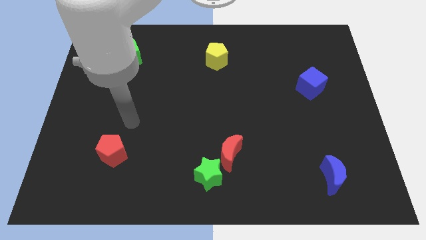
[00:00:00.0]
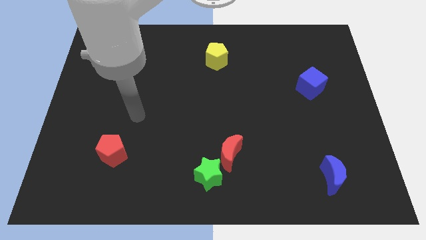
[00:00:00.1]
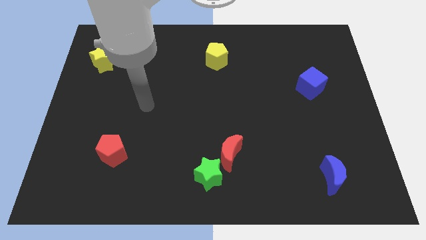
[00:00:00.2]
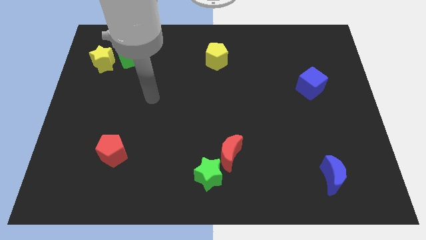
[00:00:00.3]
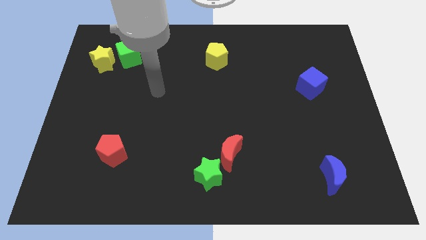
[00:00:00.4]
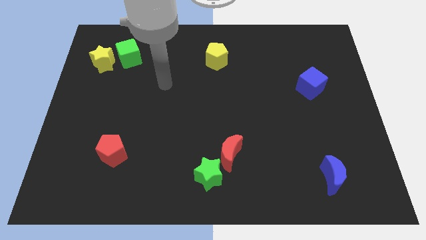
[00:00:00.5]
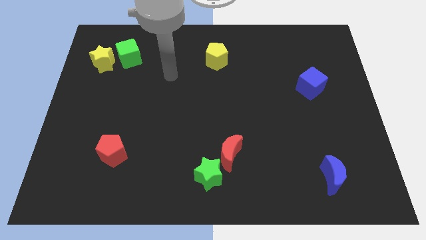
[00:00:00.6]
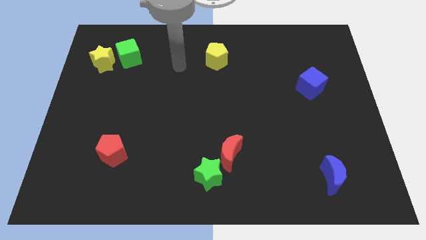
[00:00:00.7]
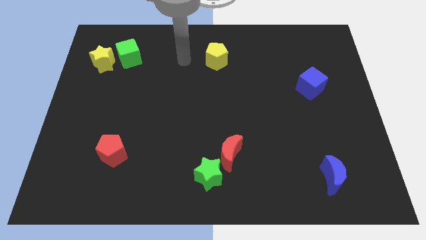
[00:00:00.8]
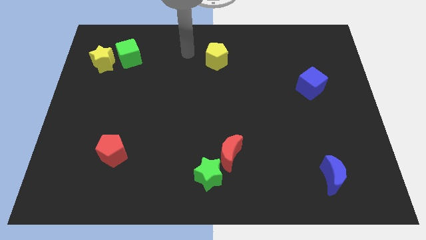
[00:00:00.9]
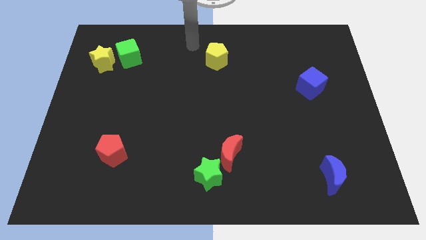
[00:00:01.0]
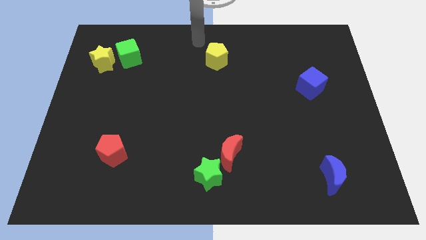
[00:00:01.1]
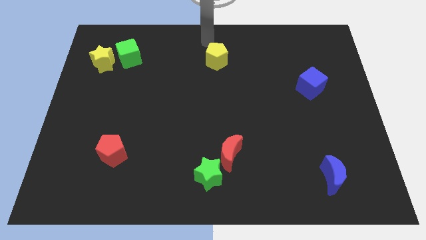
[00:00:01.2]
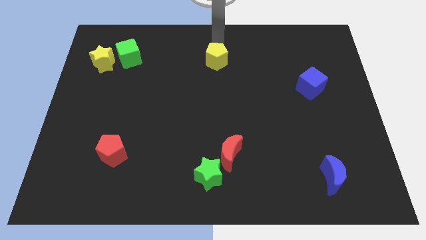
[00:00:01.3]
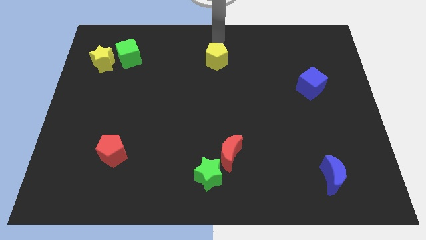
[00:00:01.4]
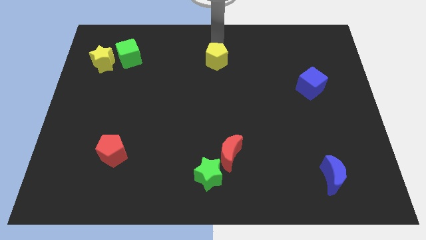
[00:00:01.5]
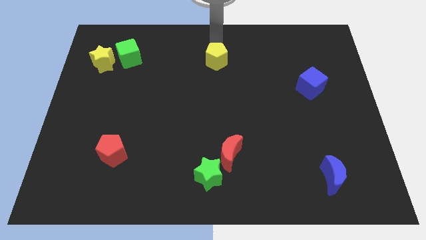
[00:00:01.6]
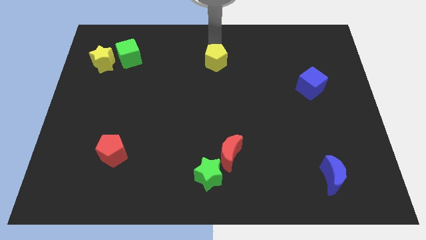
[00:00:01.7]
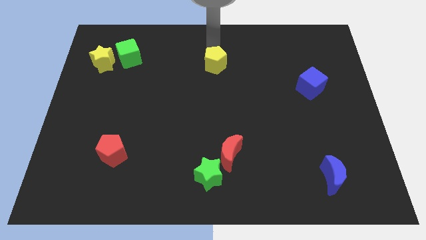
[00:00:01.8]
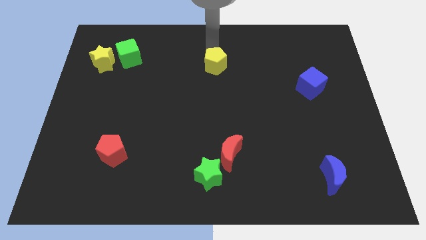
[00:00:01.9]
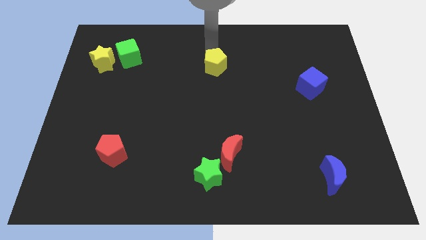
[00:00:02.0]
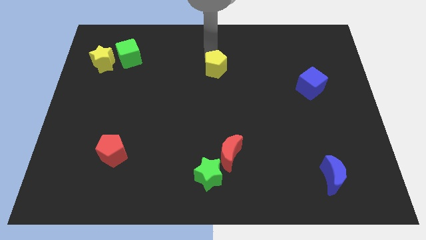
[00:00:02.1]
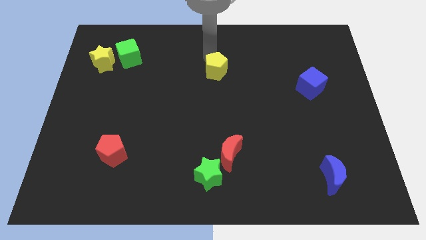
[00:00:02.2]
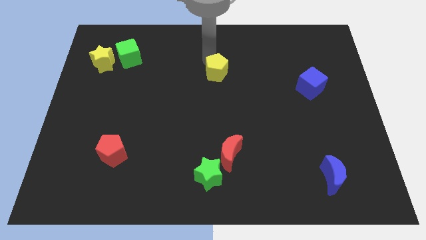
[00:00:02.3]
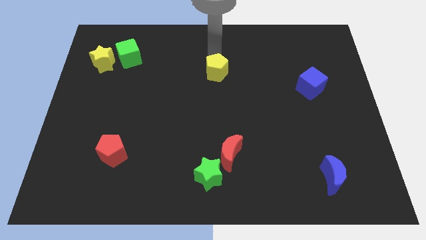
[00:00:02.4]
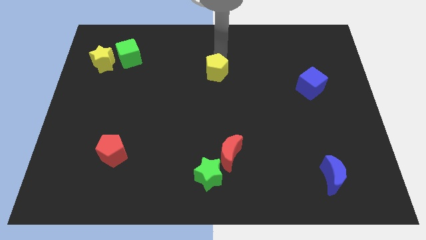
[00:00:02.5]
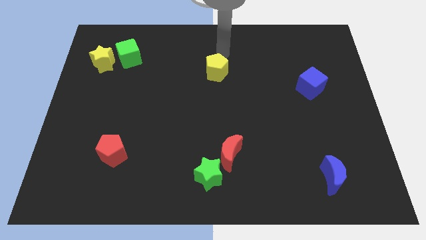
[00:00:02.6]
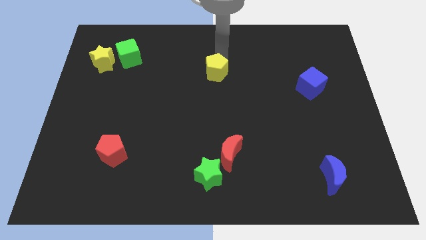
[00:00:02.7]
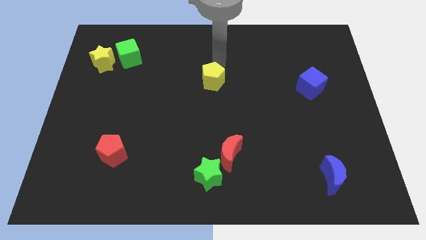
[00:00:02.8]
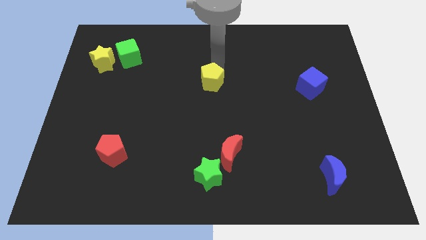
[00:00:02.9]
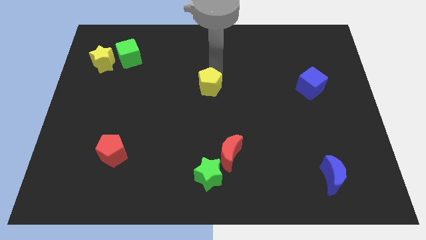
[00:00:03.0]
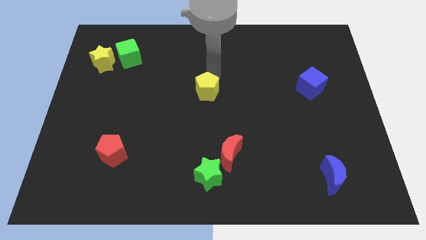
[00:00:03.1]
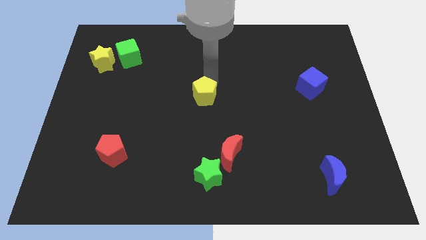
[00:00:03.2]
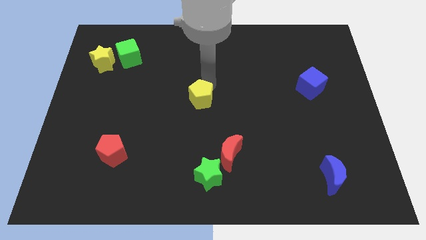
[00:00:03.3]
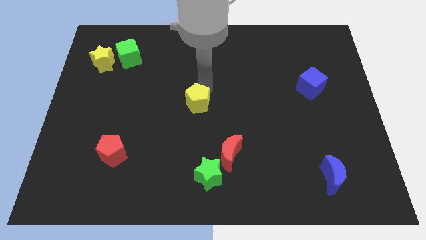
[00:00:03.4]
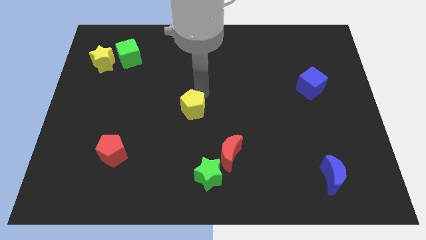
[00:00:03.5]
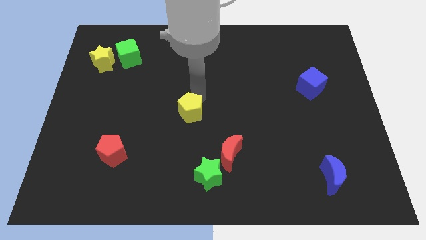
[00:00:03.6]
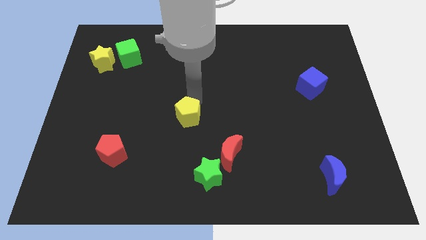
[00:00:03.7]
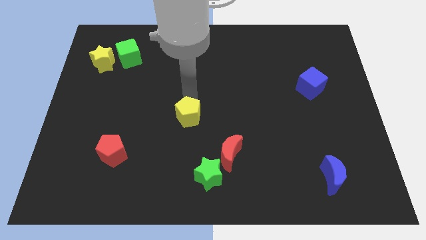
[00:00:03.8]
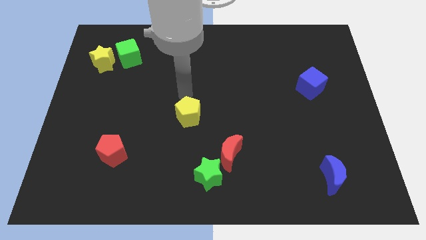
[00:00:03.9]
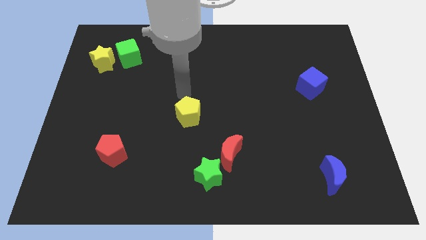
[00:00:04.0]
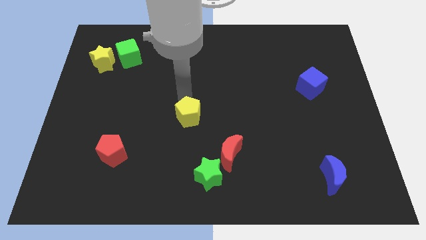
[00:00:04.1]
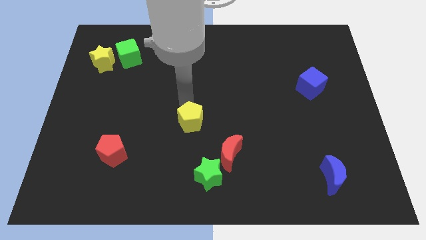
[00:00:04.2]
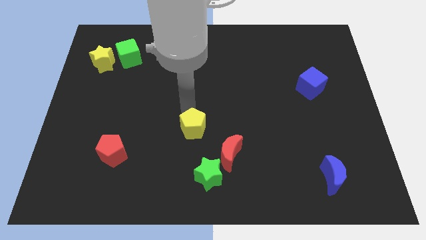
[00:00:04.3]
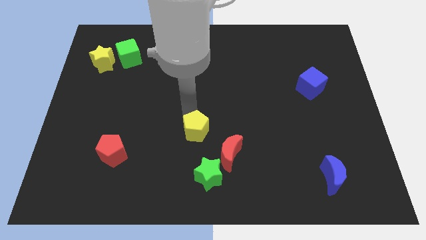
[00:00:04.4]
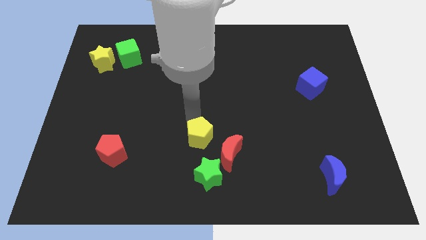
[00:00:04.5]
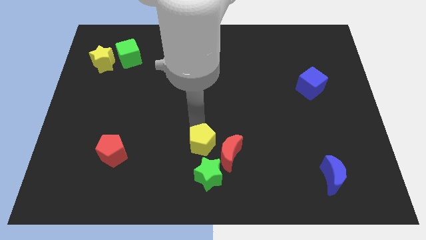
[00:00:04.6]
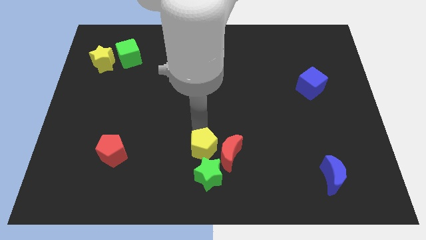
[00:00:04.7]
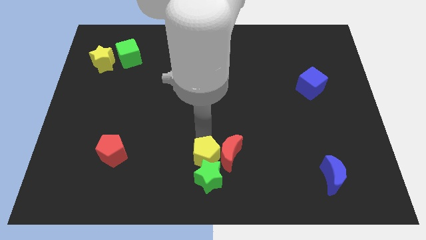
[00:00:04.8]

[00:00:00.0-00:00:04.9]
slide the yellow pentagon to the bottom left side of the red moon

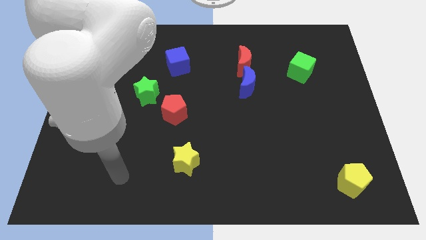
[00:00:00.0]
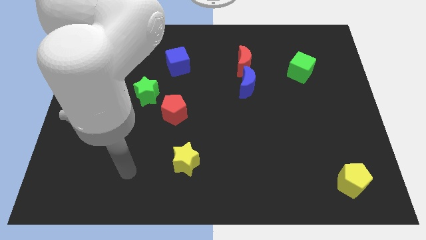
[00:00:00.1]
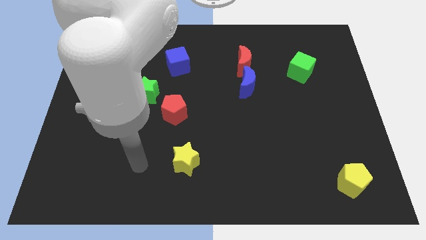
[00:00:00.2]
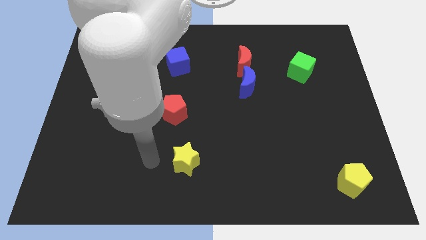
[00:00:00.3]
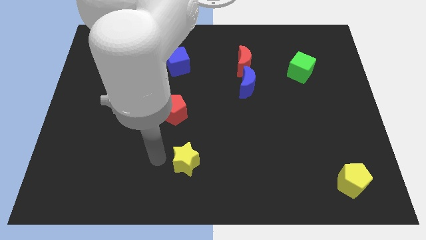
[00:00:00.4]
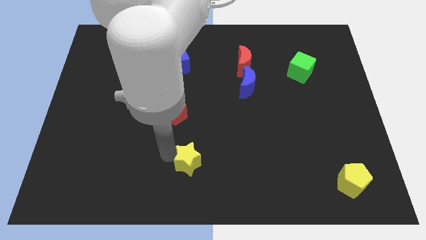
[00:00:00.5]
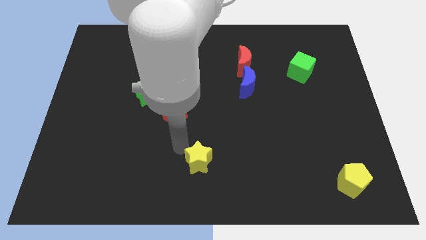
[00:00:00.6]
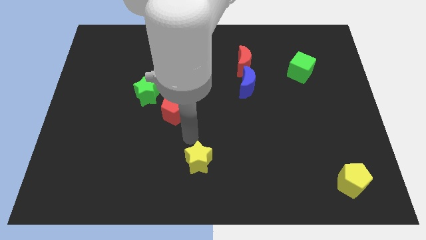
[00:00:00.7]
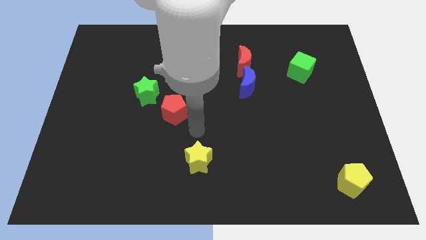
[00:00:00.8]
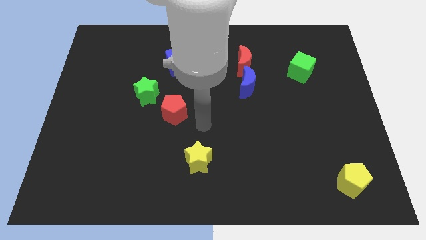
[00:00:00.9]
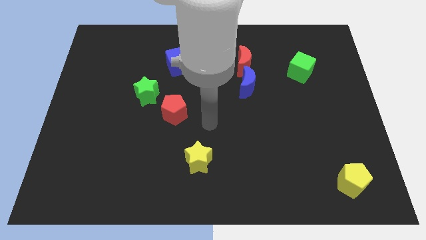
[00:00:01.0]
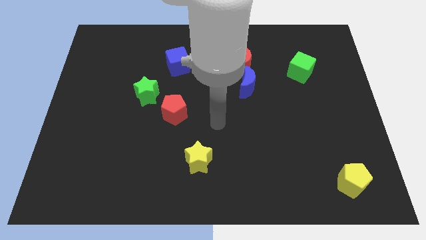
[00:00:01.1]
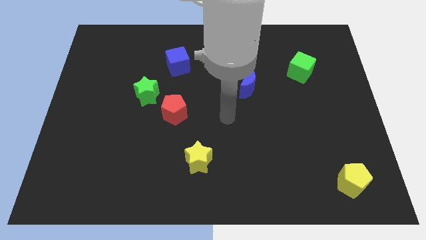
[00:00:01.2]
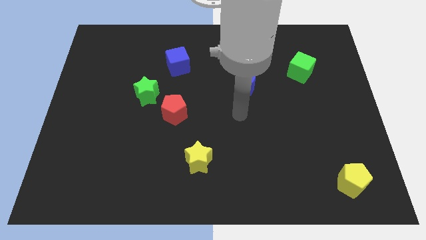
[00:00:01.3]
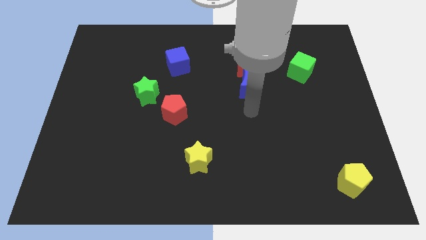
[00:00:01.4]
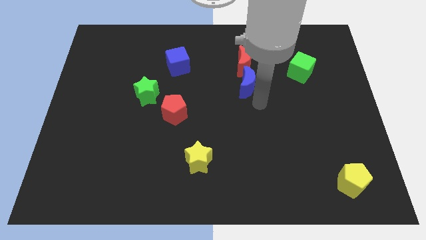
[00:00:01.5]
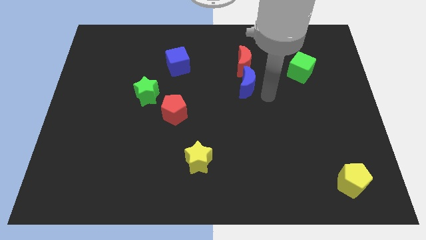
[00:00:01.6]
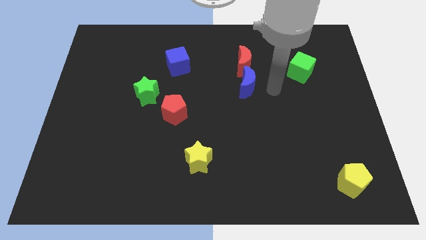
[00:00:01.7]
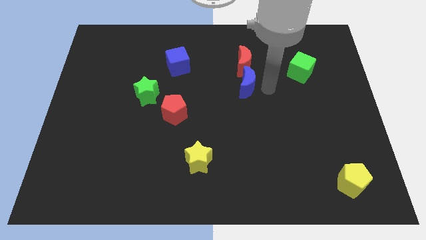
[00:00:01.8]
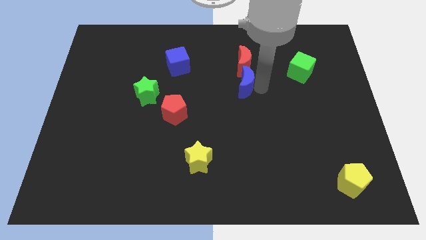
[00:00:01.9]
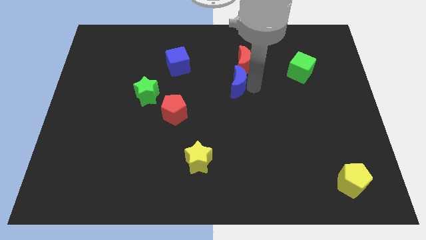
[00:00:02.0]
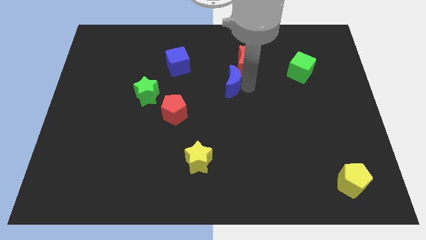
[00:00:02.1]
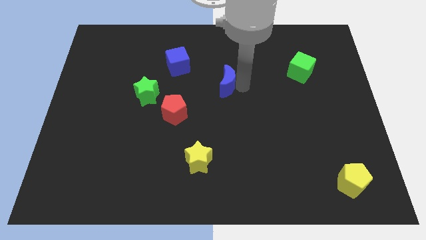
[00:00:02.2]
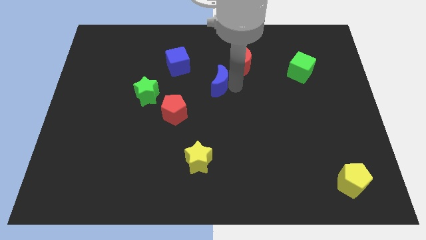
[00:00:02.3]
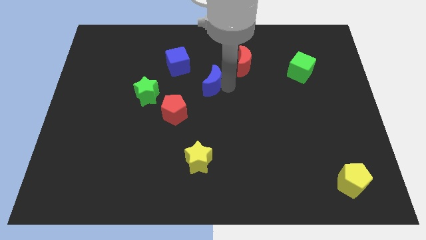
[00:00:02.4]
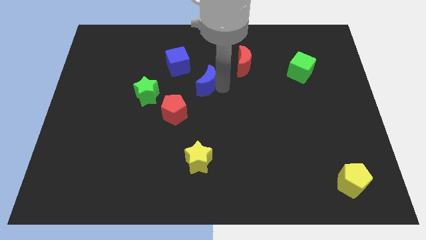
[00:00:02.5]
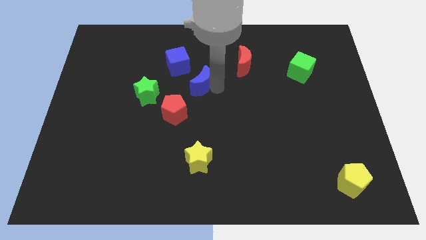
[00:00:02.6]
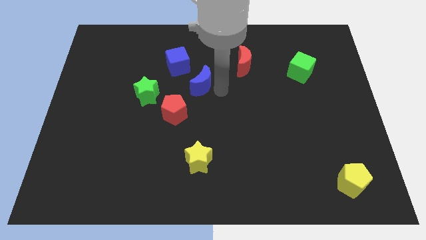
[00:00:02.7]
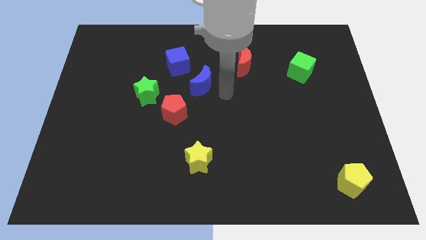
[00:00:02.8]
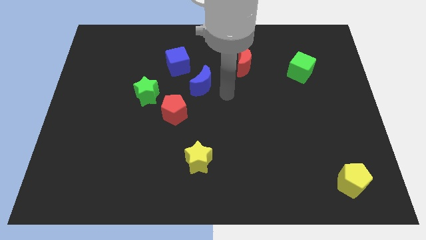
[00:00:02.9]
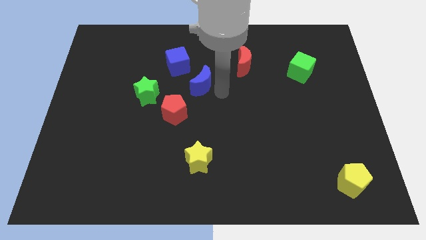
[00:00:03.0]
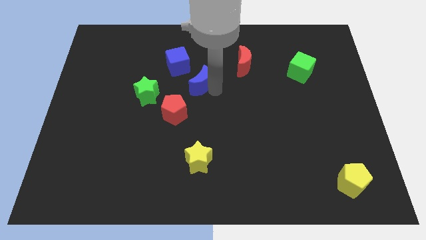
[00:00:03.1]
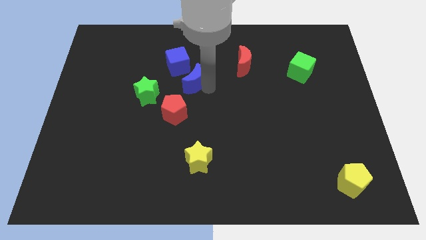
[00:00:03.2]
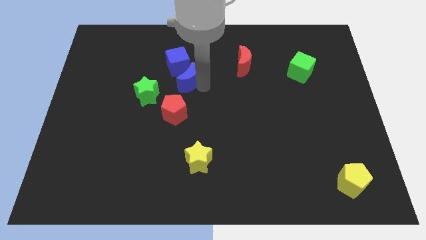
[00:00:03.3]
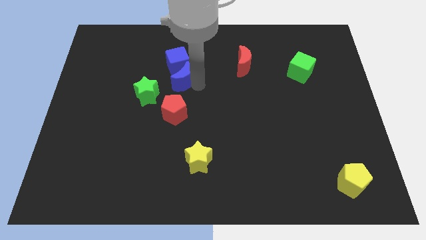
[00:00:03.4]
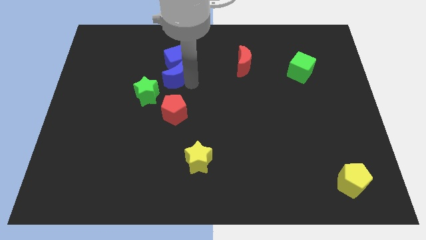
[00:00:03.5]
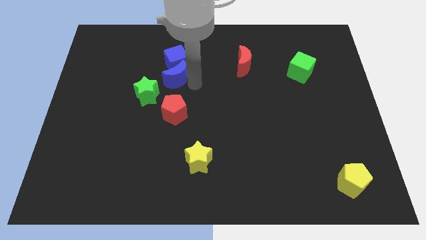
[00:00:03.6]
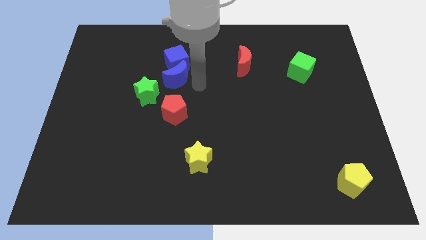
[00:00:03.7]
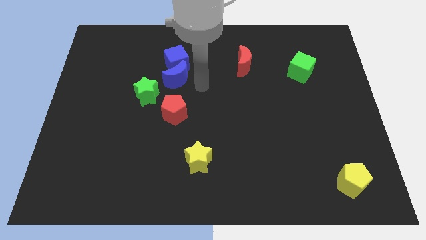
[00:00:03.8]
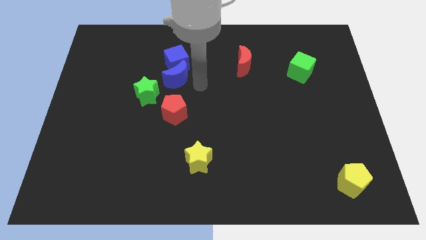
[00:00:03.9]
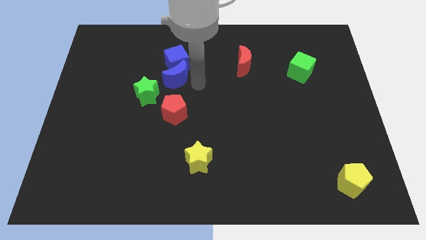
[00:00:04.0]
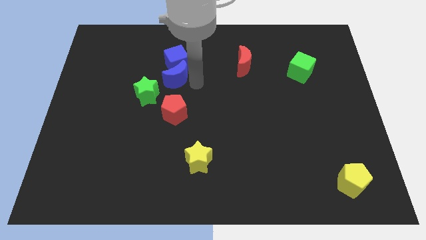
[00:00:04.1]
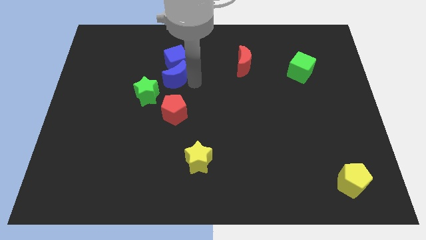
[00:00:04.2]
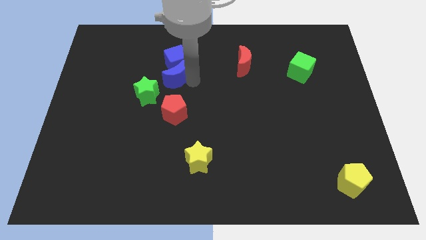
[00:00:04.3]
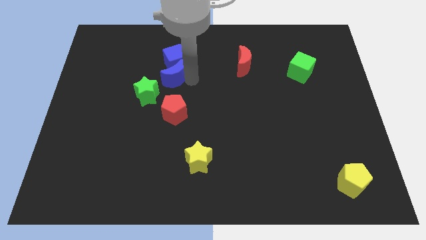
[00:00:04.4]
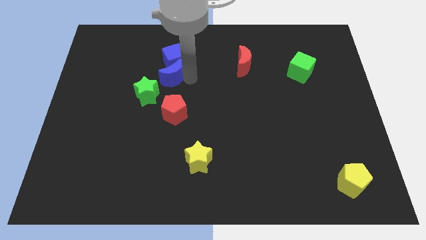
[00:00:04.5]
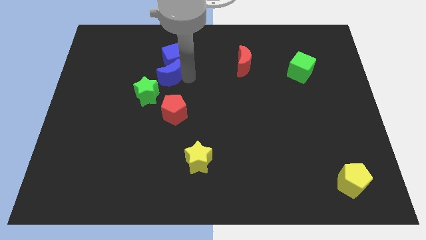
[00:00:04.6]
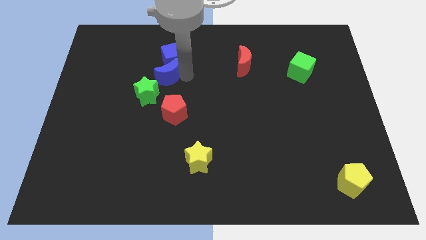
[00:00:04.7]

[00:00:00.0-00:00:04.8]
slide the blue moon to the top of the green star
